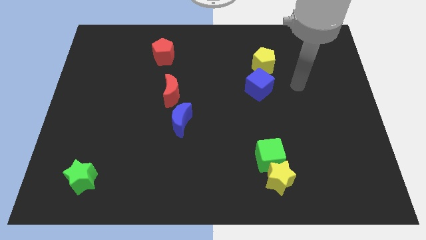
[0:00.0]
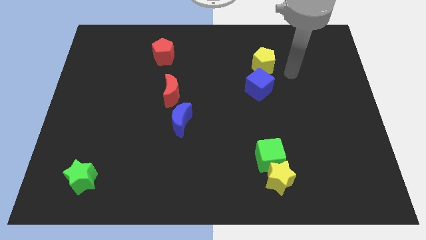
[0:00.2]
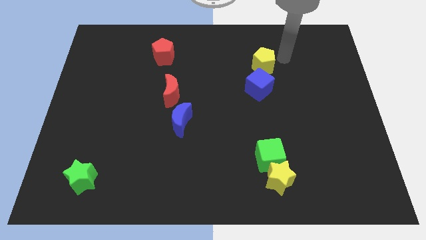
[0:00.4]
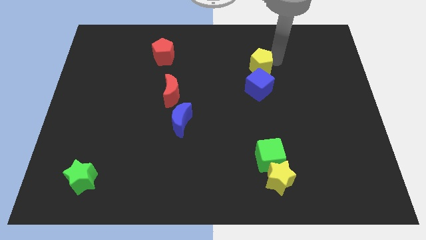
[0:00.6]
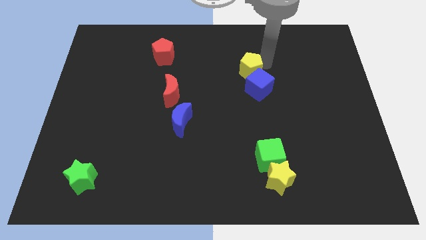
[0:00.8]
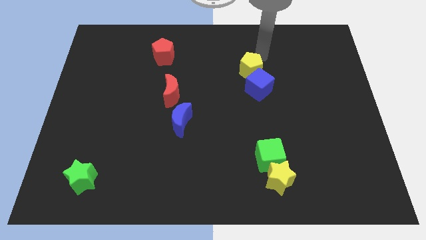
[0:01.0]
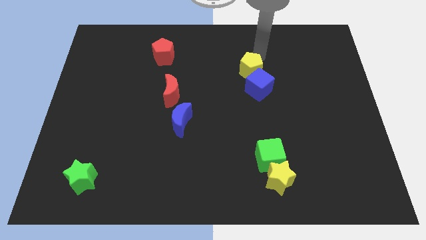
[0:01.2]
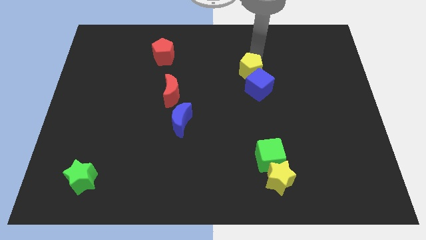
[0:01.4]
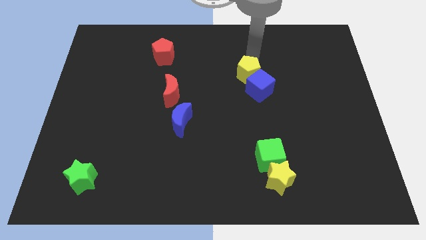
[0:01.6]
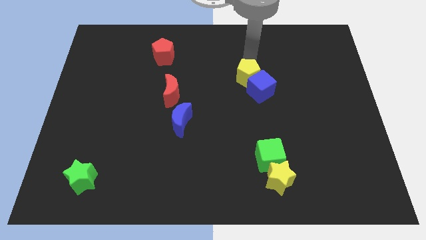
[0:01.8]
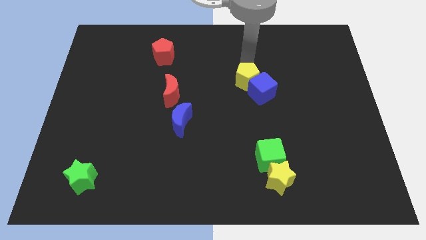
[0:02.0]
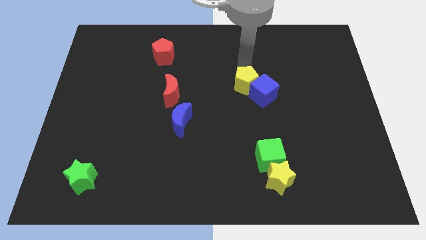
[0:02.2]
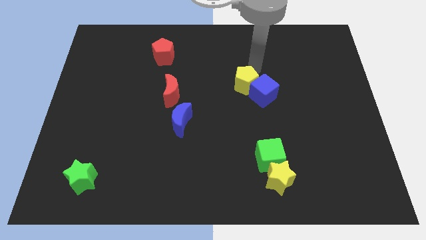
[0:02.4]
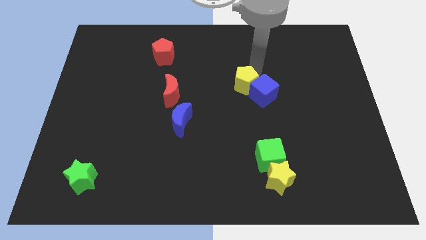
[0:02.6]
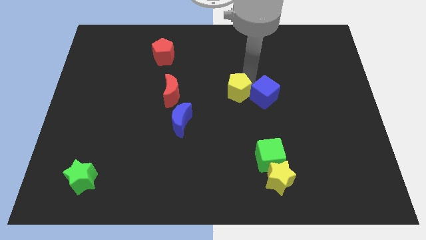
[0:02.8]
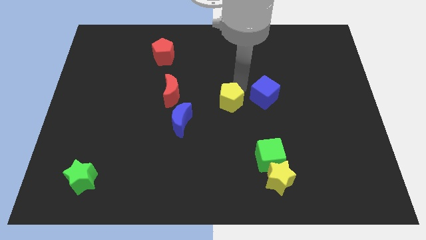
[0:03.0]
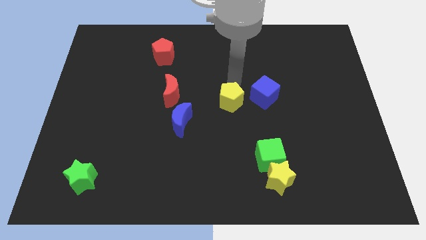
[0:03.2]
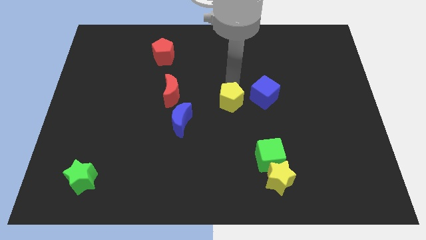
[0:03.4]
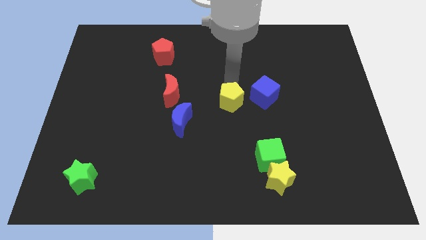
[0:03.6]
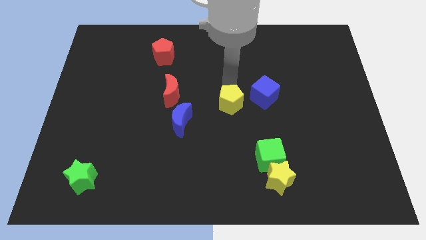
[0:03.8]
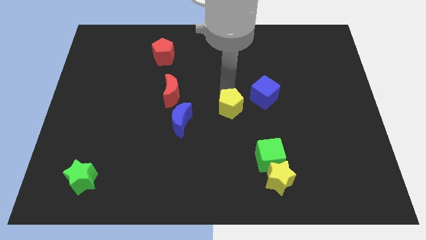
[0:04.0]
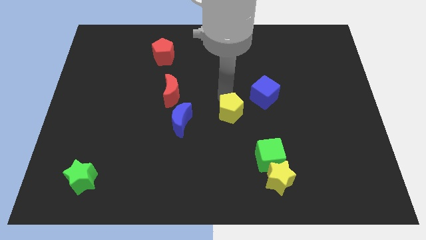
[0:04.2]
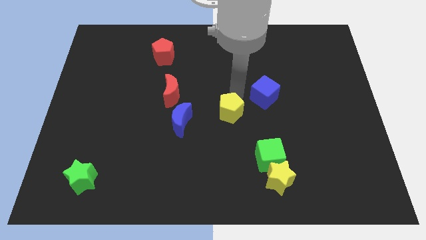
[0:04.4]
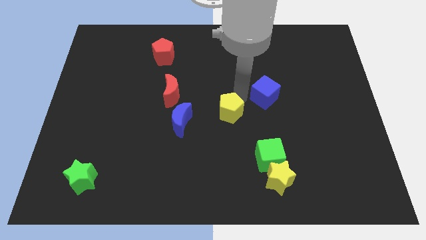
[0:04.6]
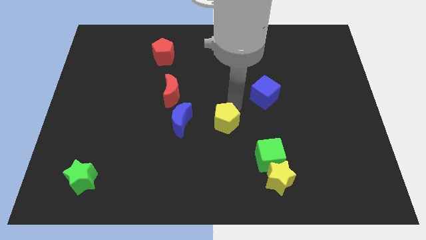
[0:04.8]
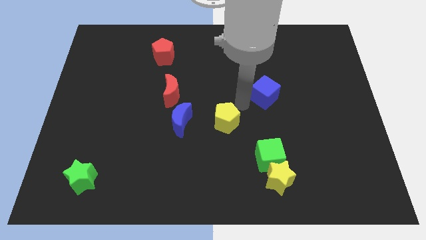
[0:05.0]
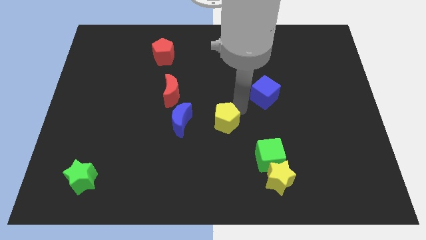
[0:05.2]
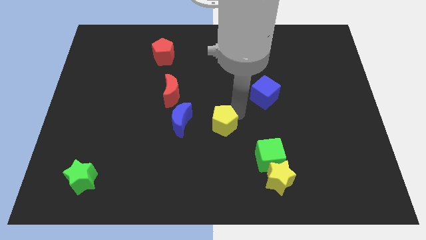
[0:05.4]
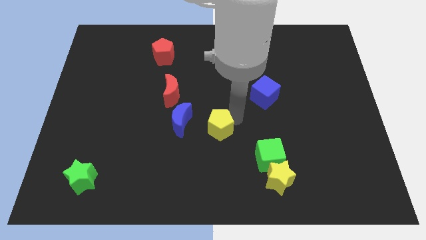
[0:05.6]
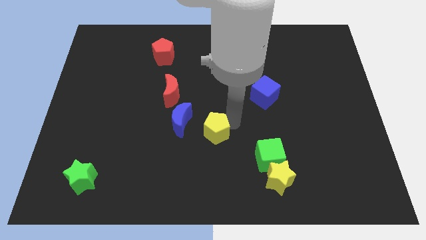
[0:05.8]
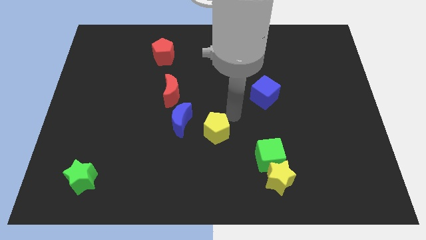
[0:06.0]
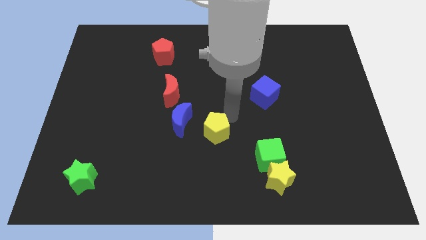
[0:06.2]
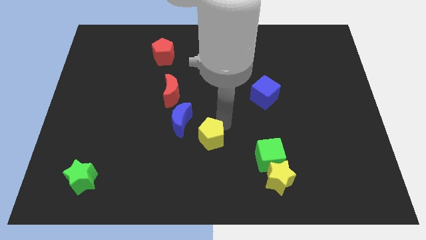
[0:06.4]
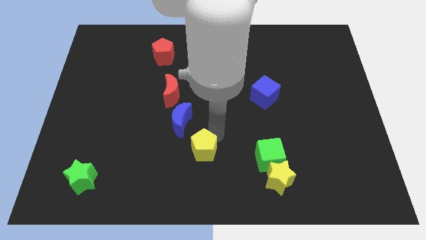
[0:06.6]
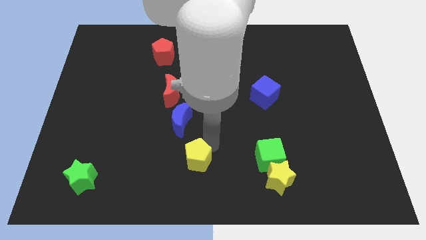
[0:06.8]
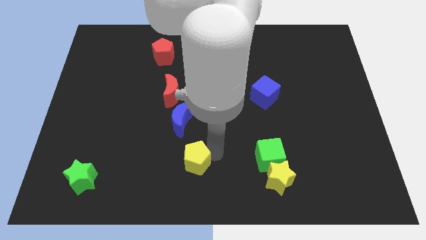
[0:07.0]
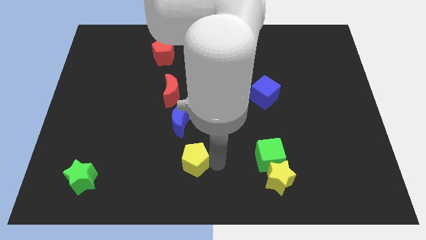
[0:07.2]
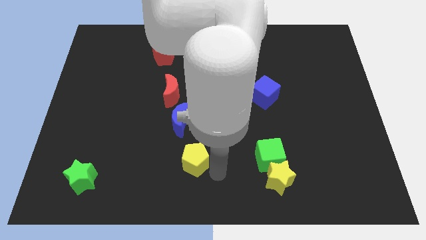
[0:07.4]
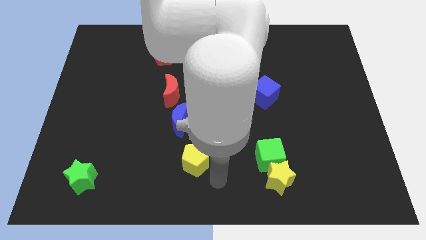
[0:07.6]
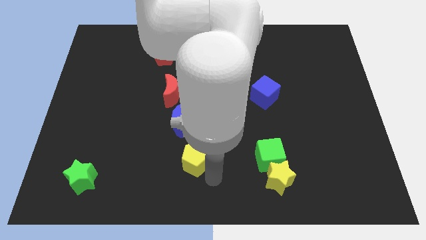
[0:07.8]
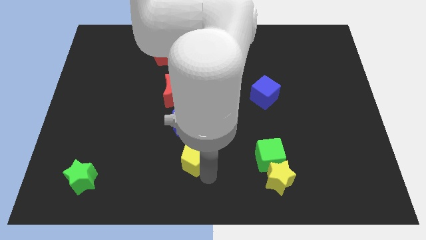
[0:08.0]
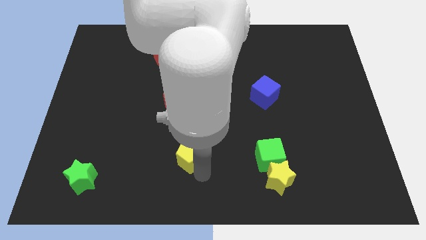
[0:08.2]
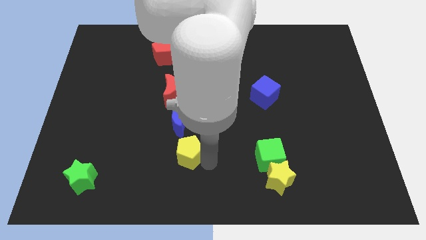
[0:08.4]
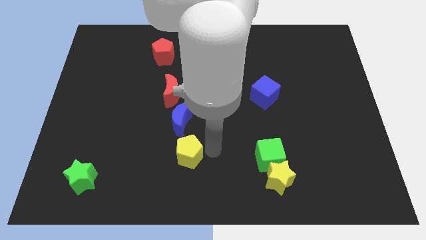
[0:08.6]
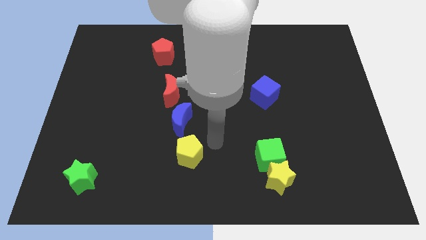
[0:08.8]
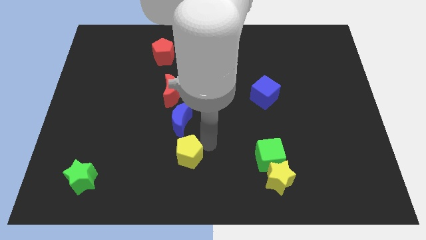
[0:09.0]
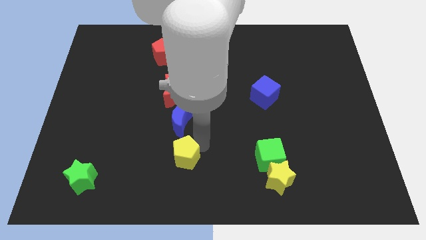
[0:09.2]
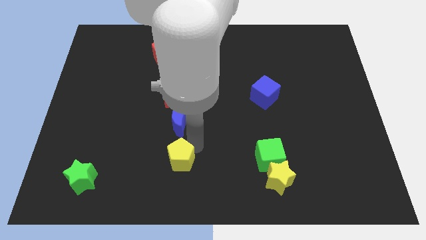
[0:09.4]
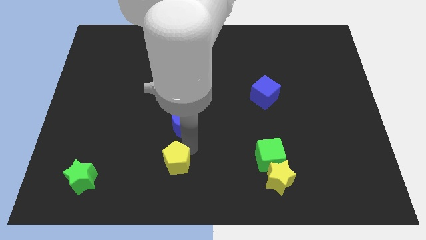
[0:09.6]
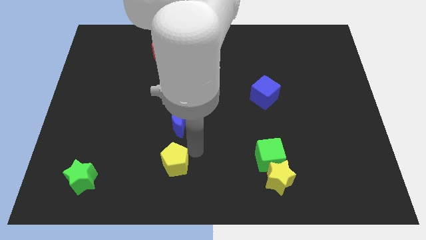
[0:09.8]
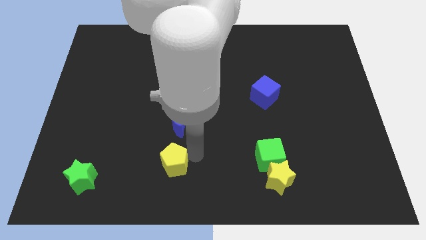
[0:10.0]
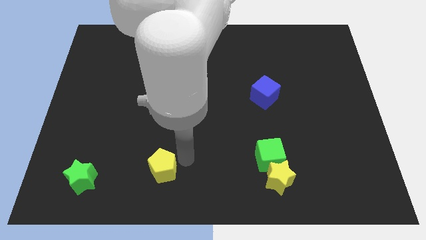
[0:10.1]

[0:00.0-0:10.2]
move the yellow pentagon right of the green star

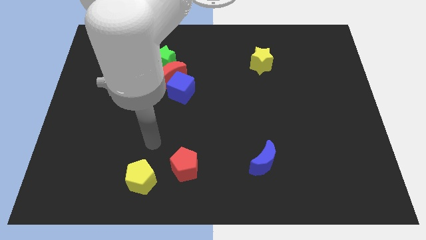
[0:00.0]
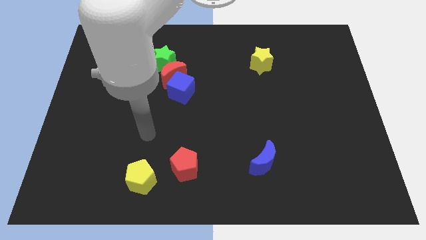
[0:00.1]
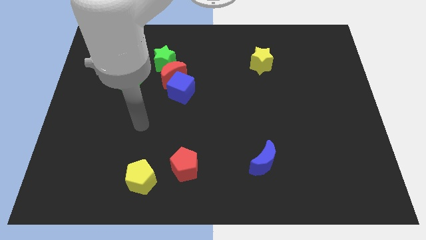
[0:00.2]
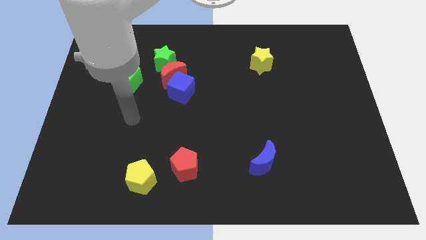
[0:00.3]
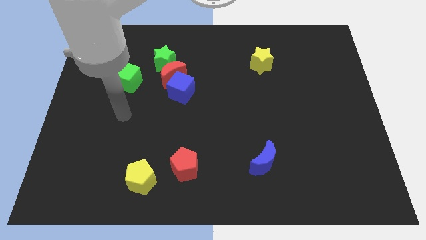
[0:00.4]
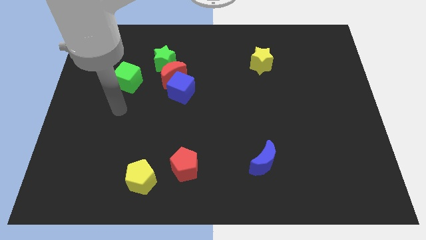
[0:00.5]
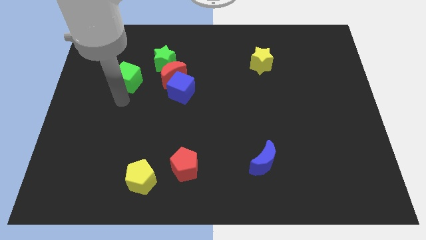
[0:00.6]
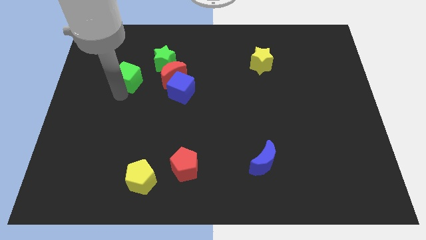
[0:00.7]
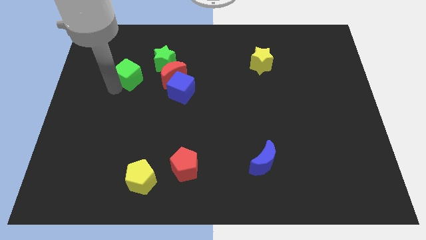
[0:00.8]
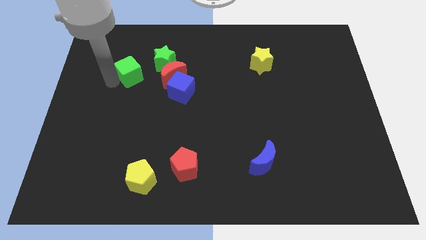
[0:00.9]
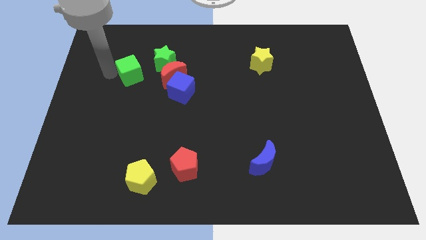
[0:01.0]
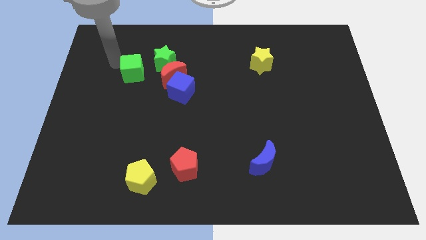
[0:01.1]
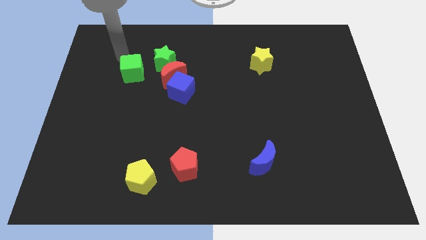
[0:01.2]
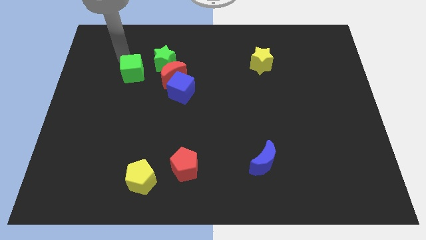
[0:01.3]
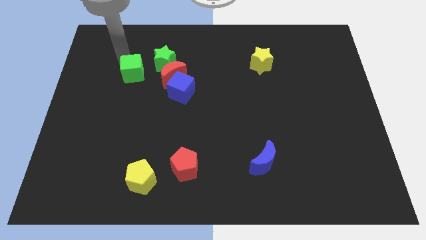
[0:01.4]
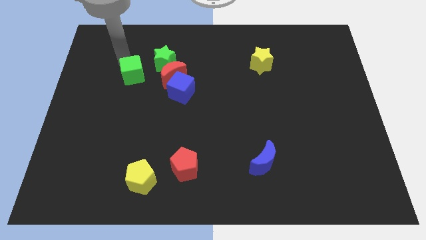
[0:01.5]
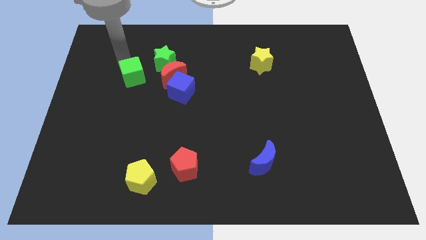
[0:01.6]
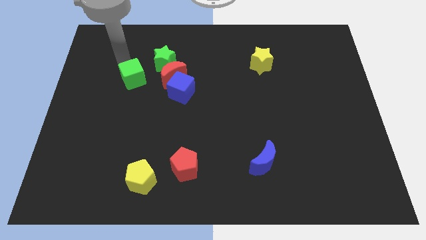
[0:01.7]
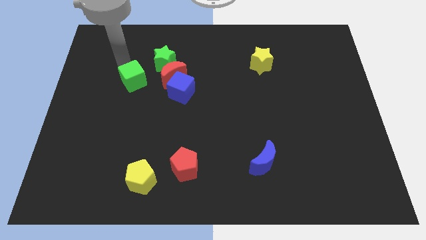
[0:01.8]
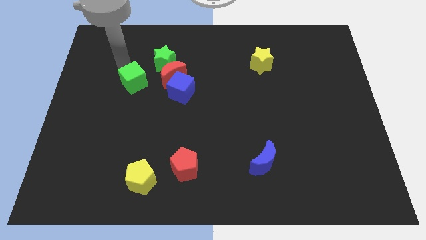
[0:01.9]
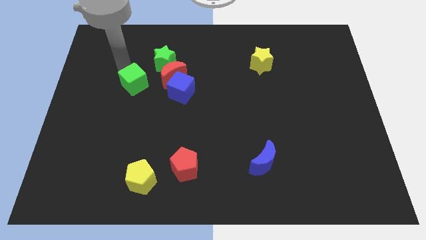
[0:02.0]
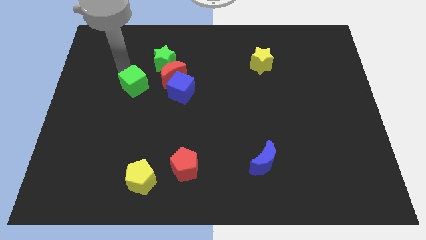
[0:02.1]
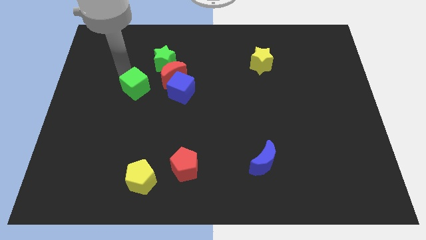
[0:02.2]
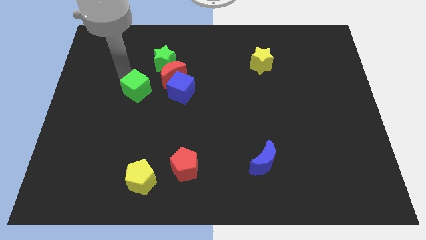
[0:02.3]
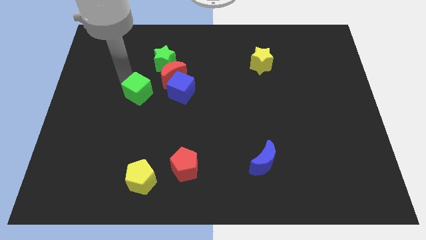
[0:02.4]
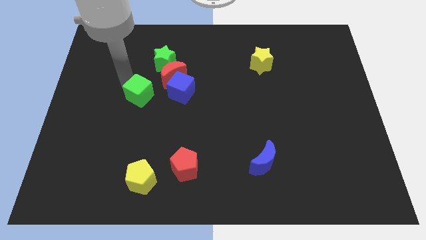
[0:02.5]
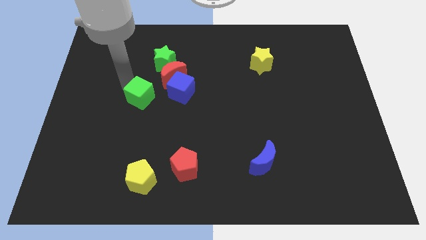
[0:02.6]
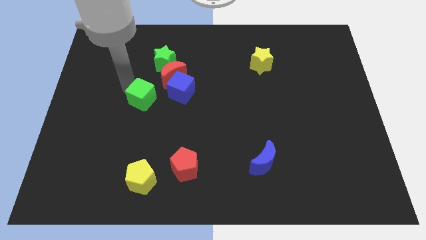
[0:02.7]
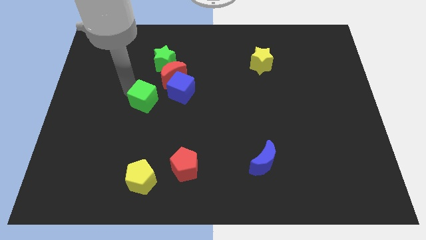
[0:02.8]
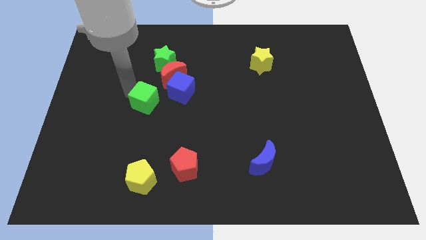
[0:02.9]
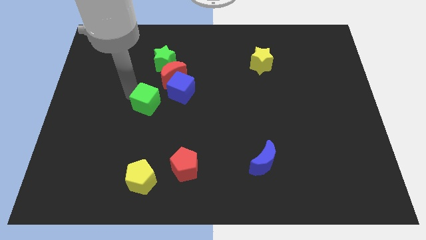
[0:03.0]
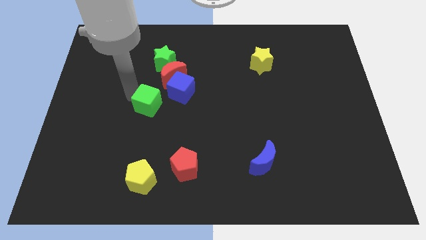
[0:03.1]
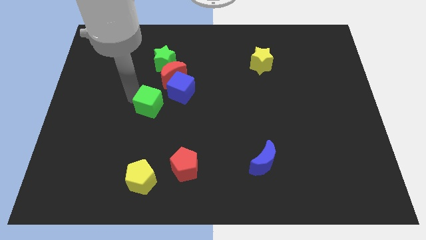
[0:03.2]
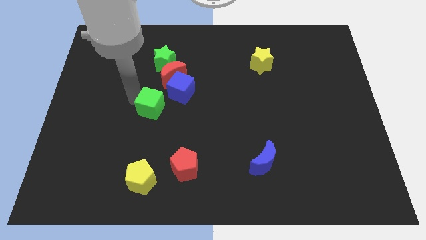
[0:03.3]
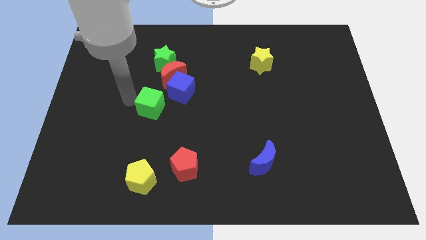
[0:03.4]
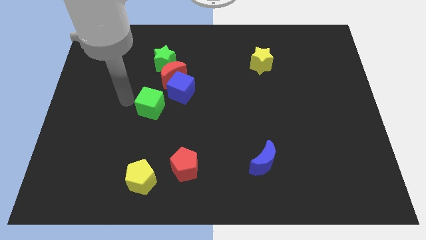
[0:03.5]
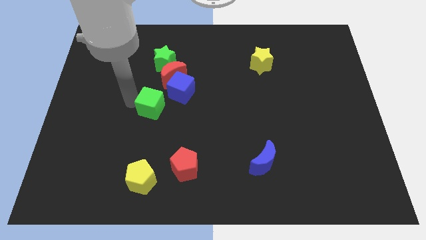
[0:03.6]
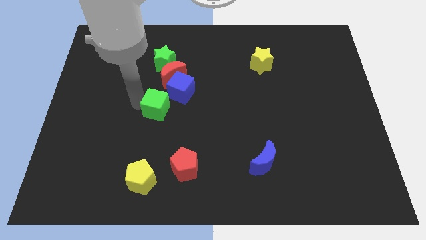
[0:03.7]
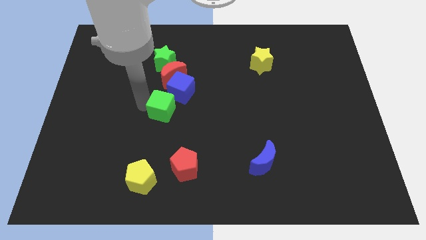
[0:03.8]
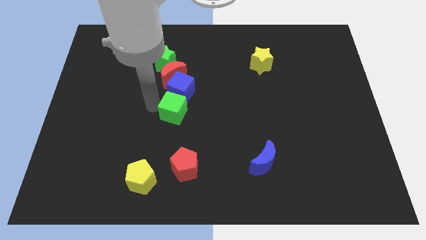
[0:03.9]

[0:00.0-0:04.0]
slide the green cube above the red pentagon
